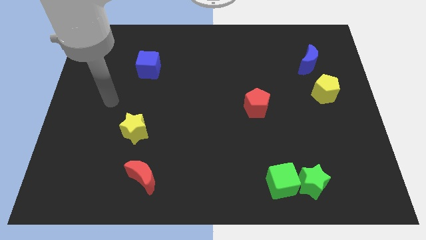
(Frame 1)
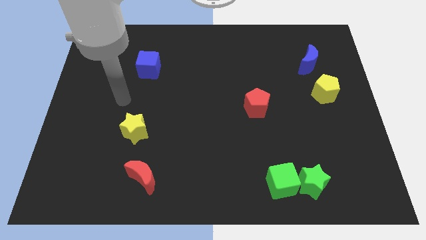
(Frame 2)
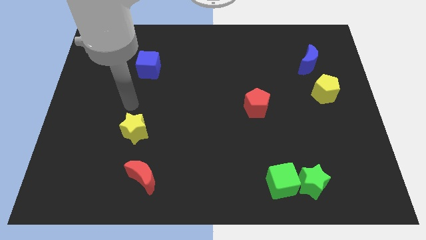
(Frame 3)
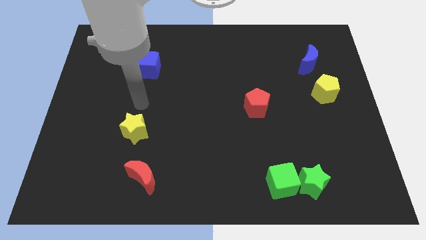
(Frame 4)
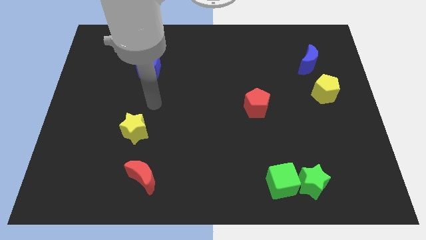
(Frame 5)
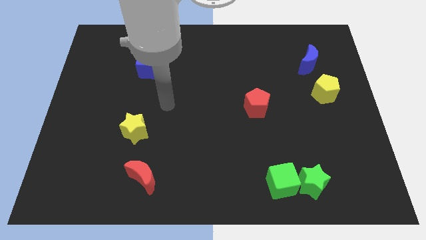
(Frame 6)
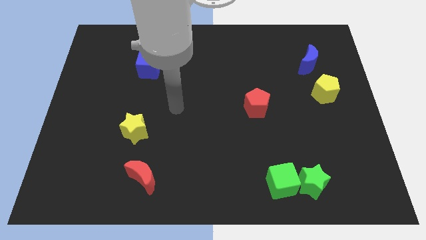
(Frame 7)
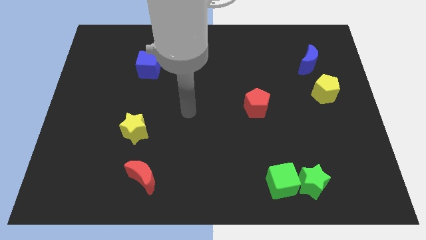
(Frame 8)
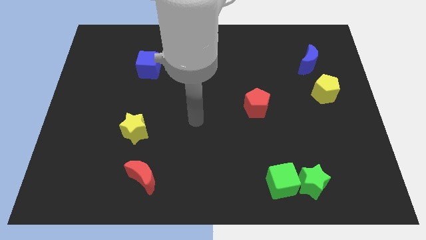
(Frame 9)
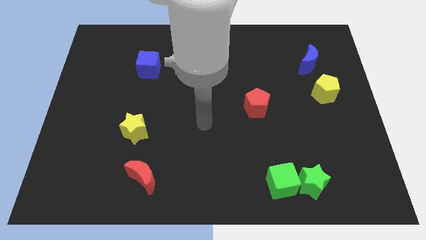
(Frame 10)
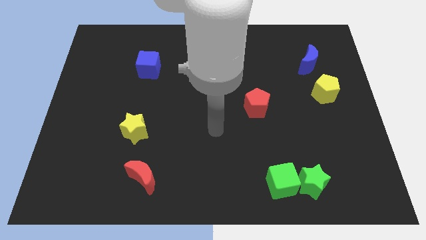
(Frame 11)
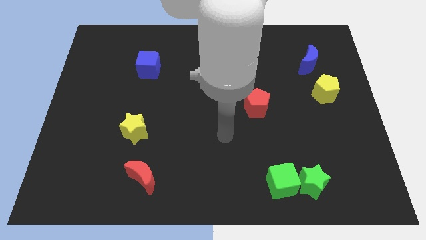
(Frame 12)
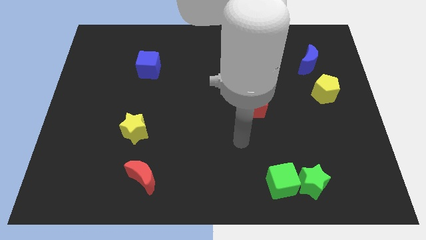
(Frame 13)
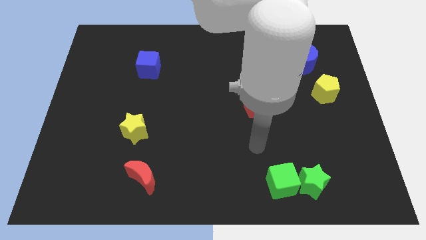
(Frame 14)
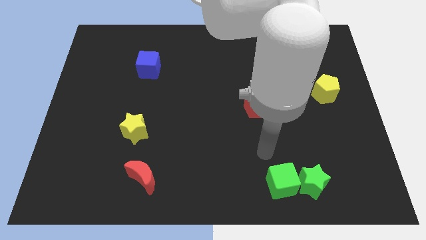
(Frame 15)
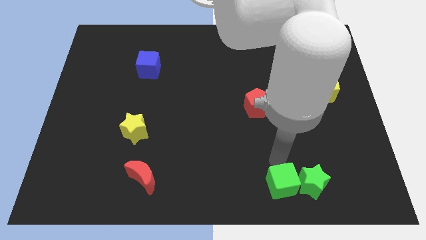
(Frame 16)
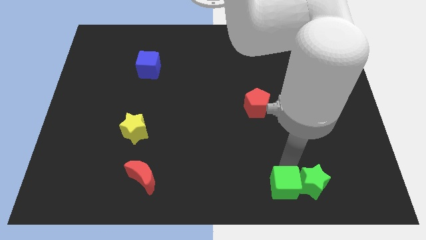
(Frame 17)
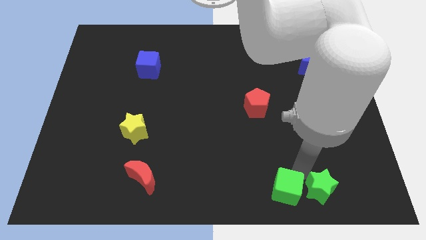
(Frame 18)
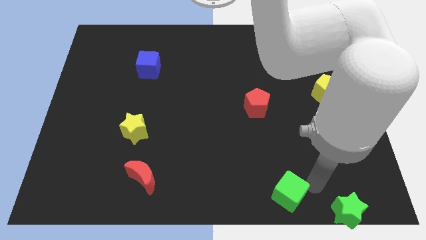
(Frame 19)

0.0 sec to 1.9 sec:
move the green cube away from the green star

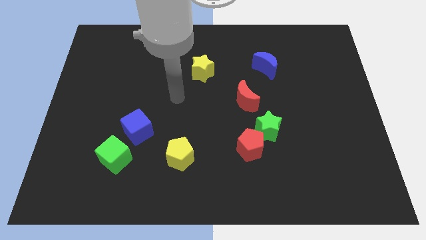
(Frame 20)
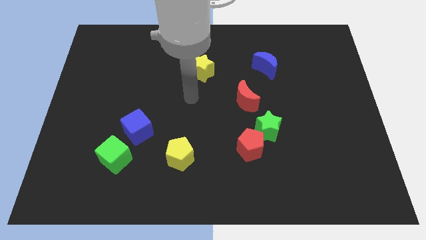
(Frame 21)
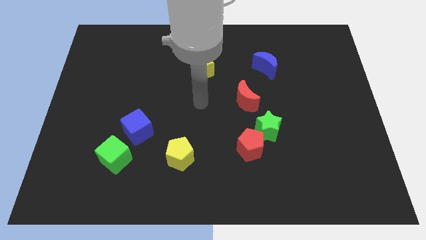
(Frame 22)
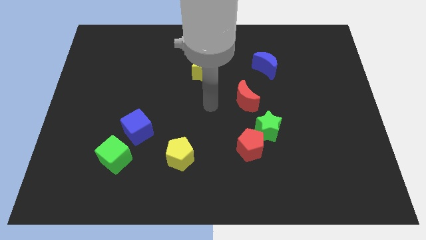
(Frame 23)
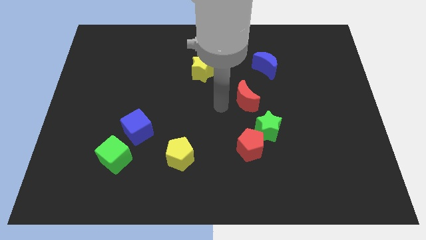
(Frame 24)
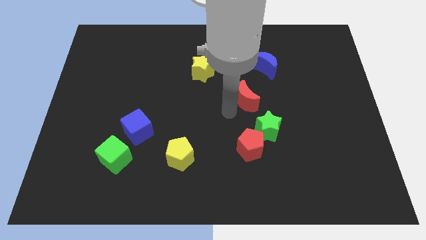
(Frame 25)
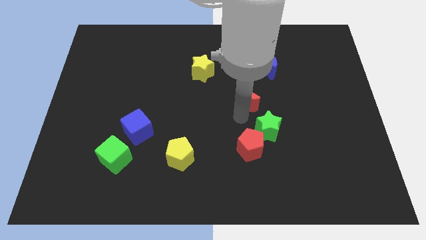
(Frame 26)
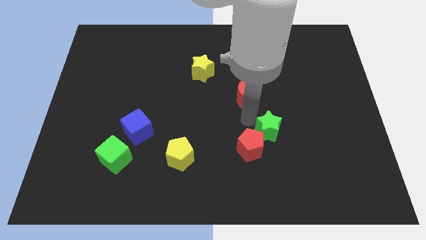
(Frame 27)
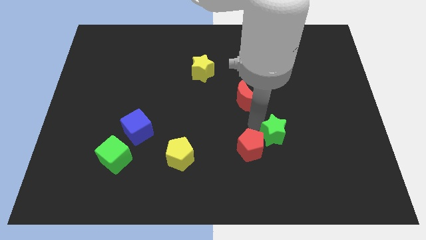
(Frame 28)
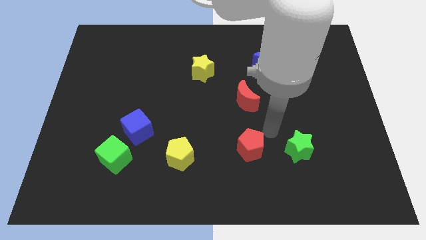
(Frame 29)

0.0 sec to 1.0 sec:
separate the red pentagon from the green star

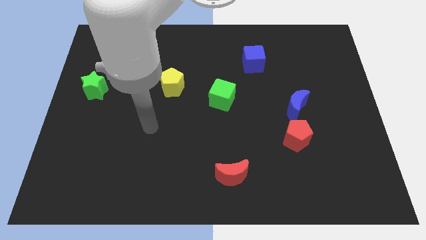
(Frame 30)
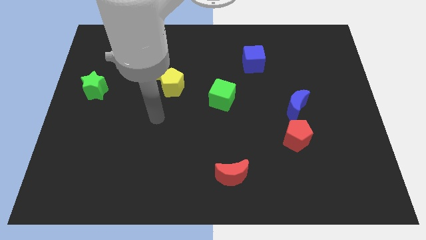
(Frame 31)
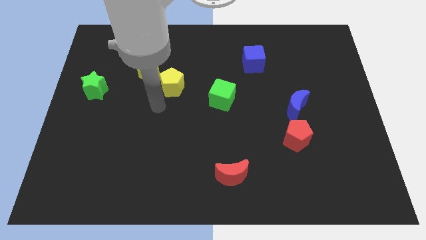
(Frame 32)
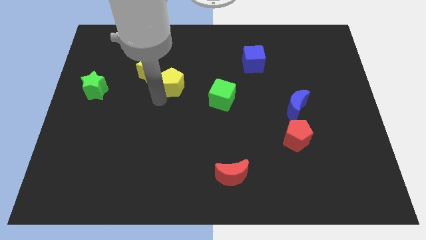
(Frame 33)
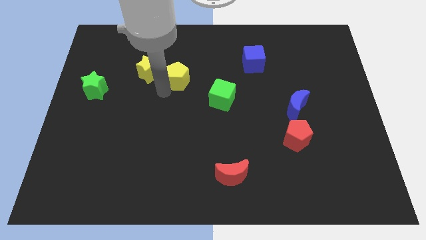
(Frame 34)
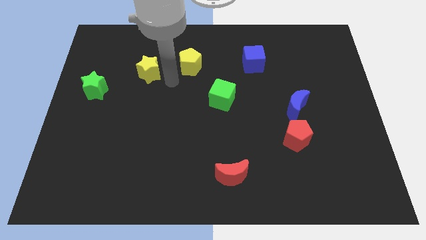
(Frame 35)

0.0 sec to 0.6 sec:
pull the yellow star apart from the yellow pentagon

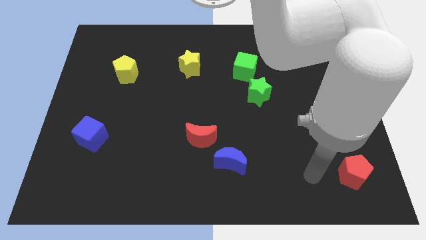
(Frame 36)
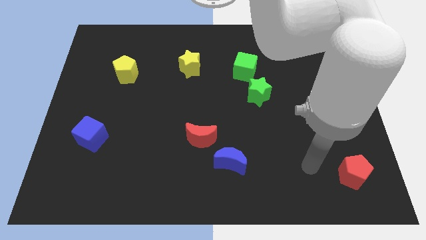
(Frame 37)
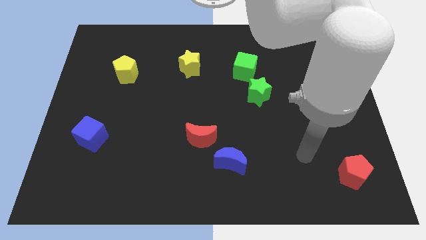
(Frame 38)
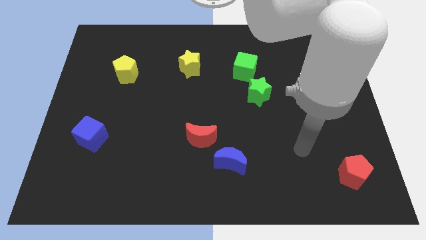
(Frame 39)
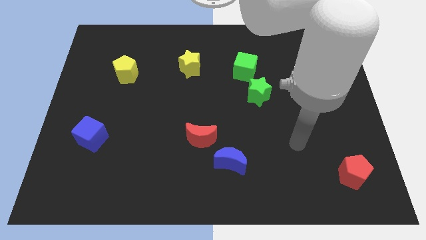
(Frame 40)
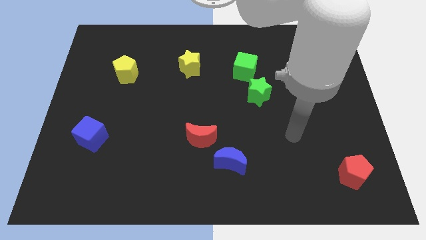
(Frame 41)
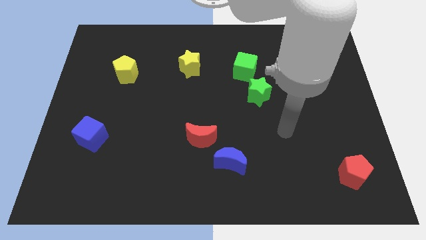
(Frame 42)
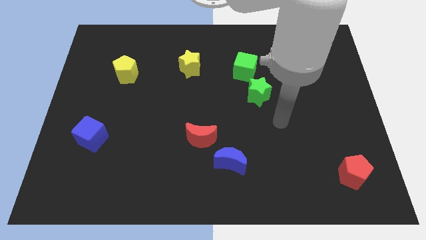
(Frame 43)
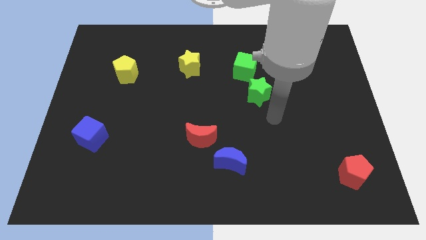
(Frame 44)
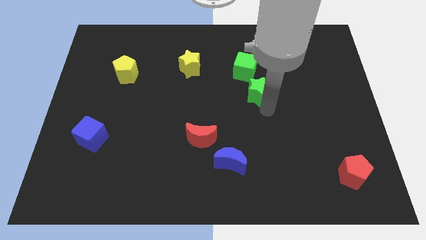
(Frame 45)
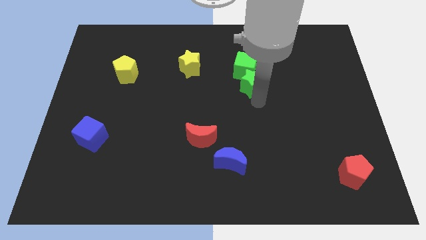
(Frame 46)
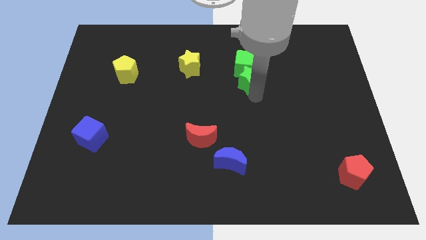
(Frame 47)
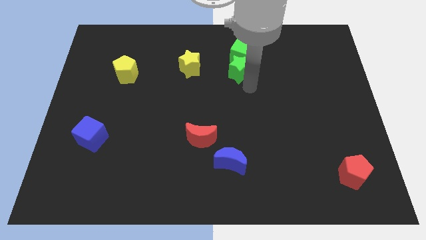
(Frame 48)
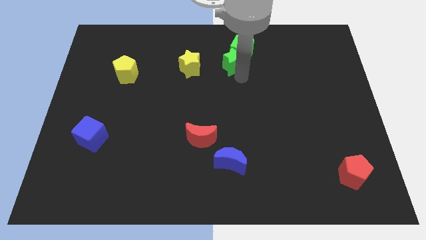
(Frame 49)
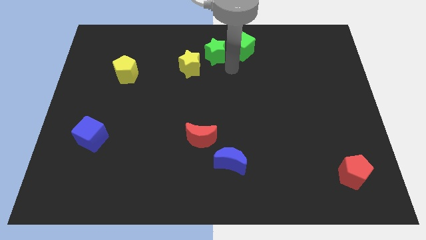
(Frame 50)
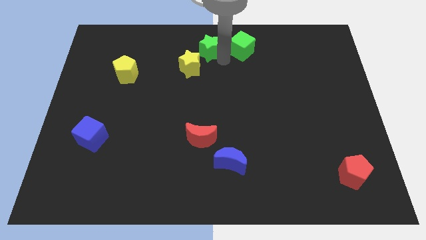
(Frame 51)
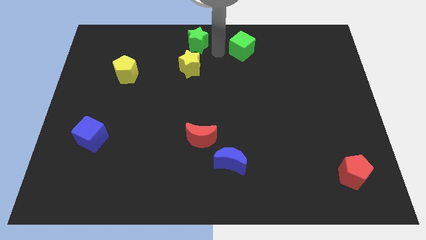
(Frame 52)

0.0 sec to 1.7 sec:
separate the green cube from the green star

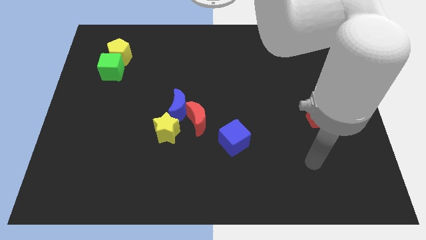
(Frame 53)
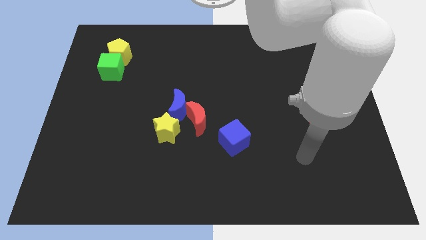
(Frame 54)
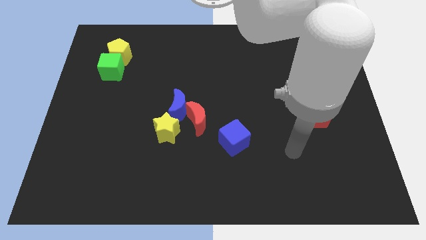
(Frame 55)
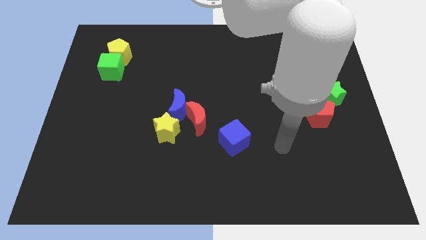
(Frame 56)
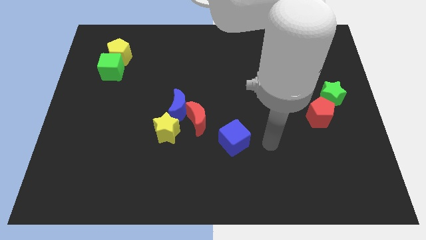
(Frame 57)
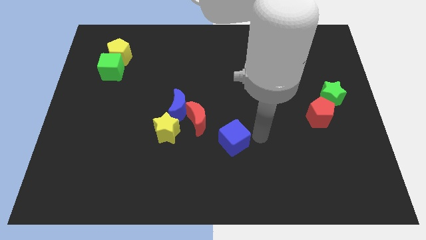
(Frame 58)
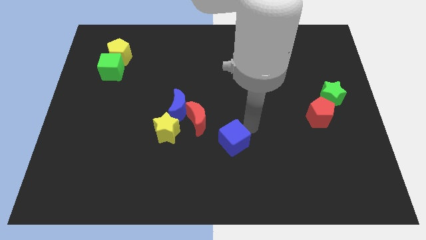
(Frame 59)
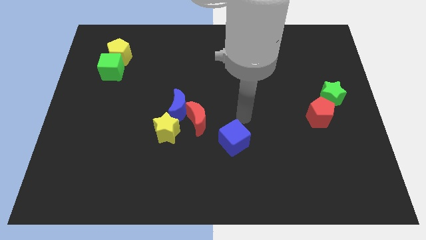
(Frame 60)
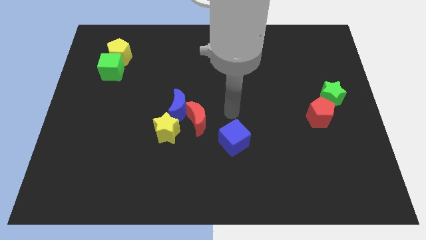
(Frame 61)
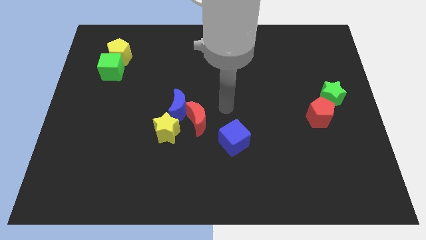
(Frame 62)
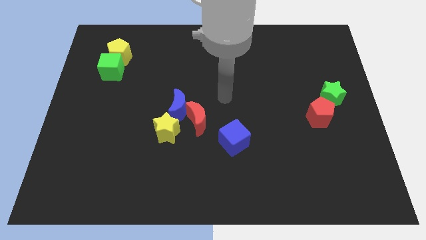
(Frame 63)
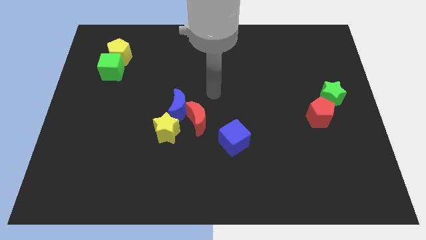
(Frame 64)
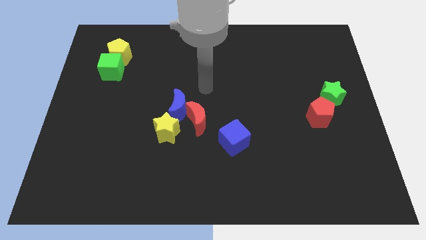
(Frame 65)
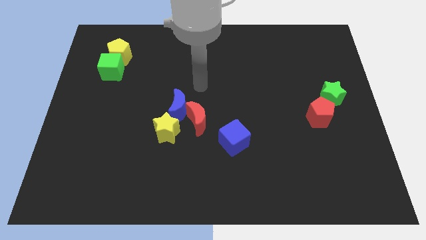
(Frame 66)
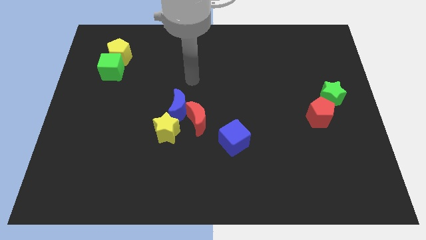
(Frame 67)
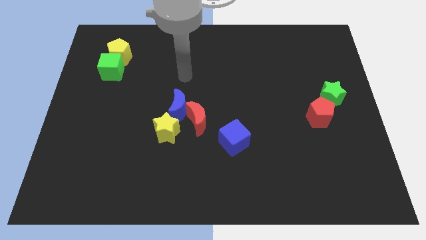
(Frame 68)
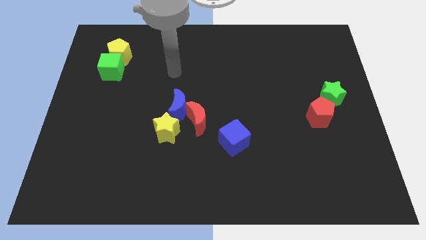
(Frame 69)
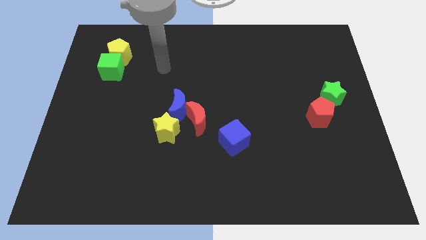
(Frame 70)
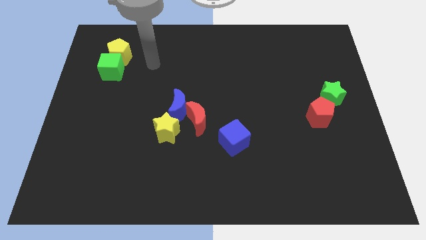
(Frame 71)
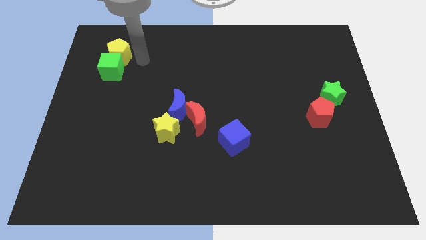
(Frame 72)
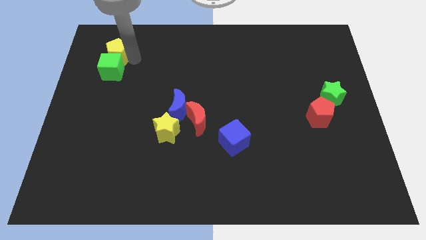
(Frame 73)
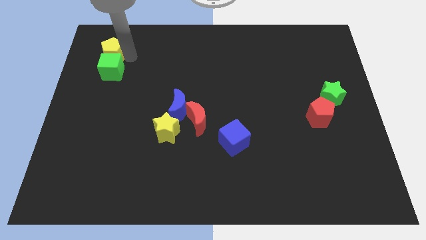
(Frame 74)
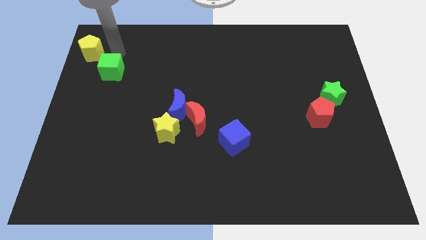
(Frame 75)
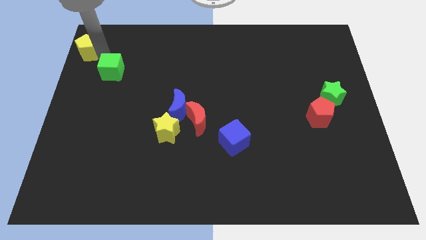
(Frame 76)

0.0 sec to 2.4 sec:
separate the green cube from the yellow pentagon

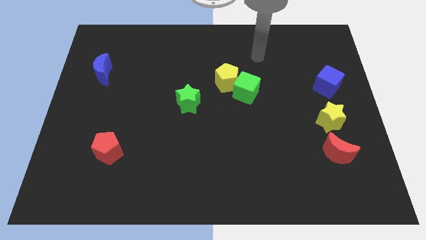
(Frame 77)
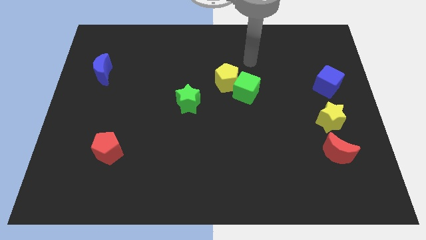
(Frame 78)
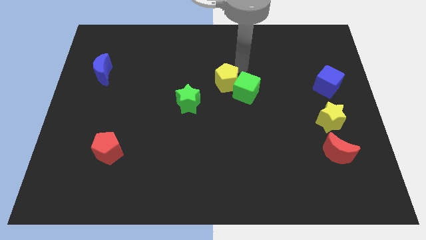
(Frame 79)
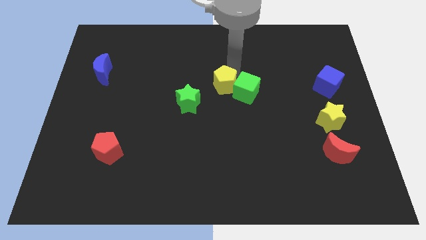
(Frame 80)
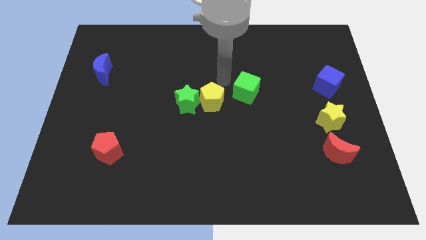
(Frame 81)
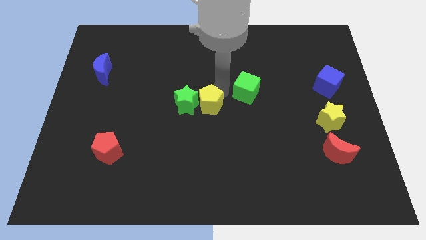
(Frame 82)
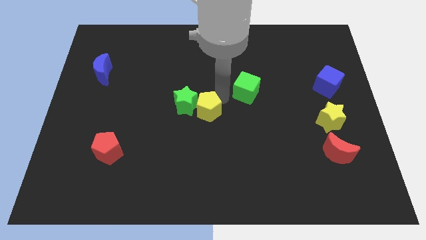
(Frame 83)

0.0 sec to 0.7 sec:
move the green cube away from the yellow pentagon

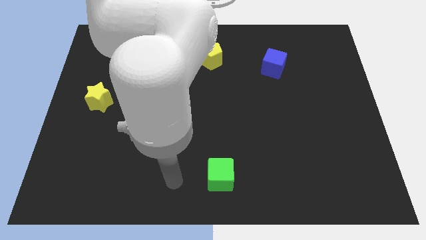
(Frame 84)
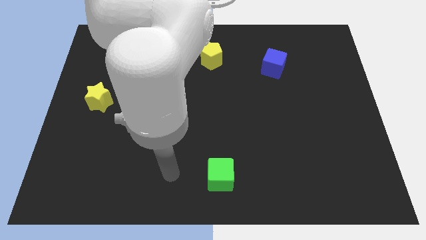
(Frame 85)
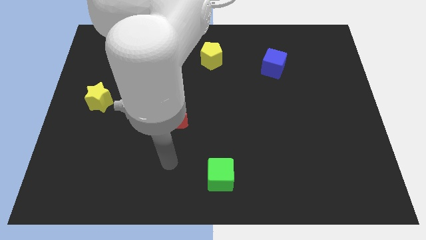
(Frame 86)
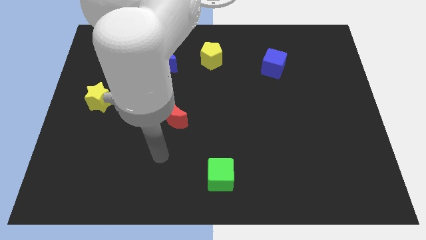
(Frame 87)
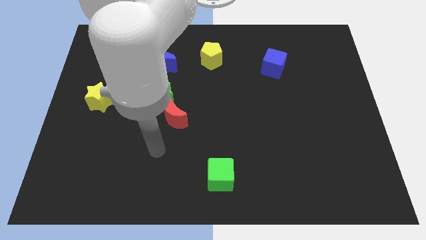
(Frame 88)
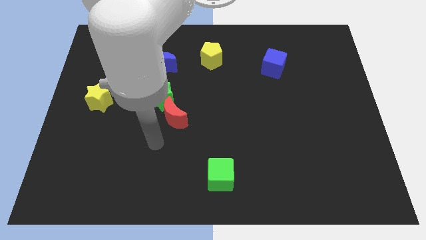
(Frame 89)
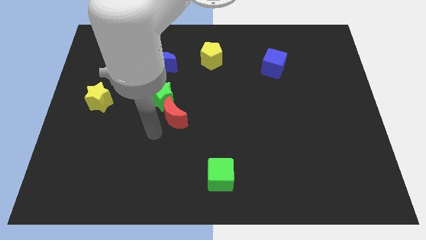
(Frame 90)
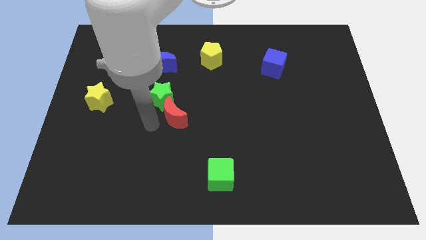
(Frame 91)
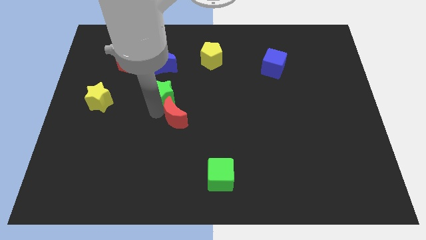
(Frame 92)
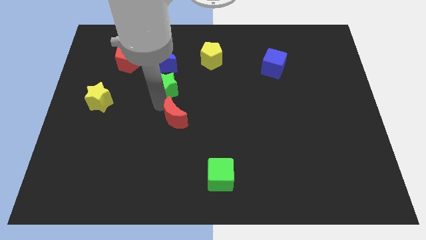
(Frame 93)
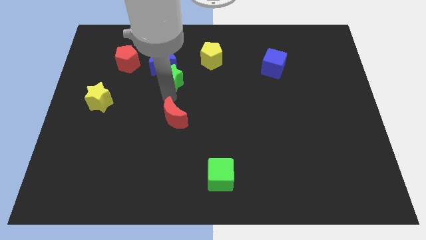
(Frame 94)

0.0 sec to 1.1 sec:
move the red moon away from the green star
